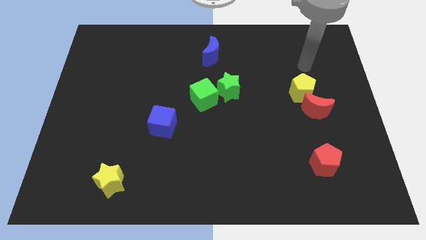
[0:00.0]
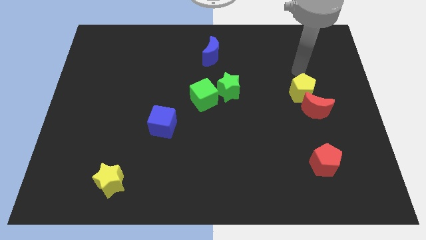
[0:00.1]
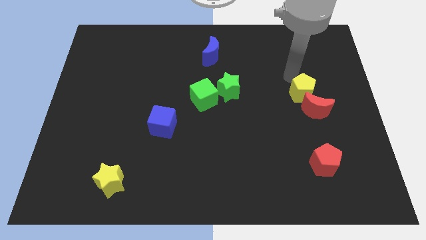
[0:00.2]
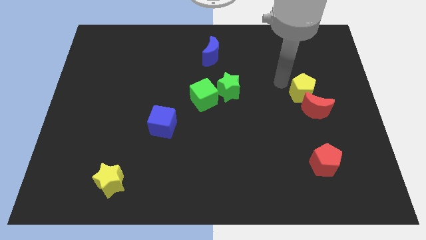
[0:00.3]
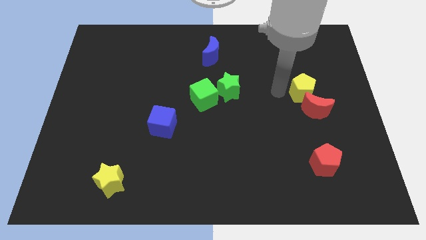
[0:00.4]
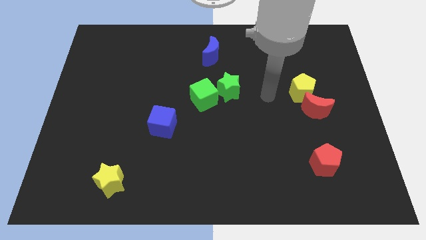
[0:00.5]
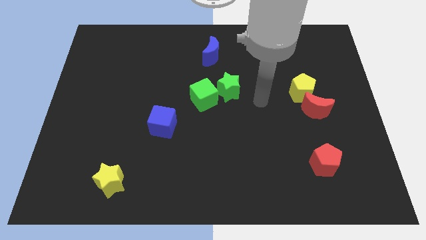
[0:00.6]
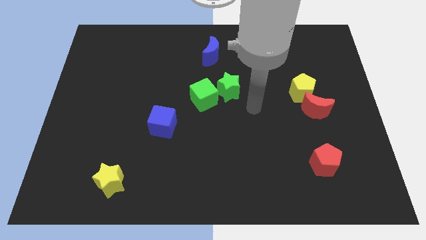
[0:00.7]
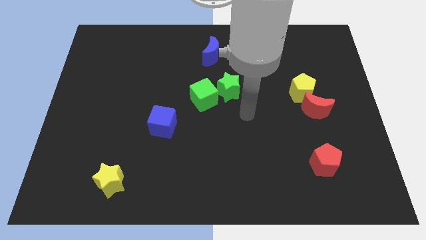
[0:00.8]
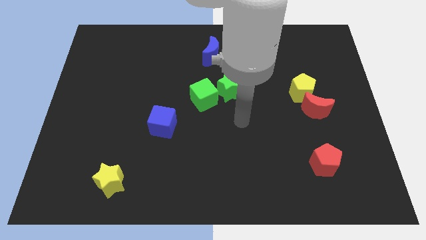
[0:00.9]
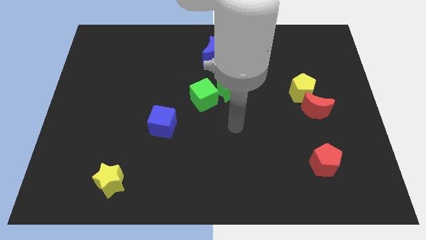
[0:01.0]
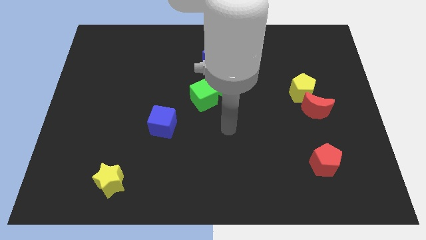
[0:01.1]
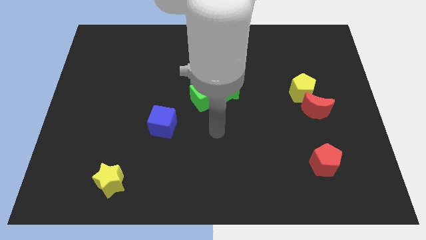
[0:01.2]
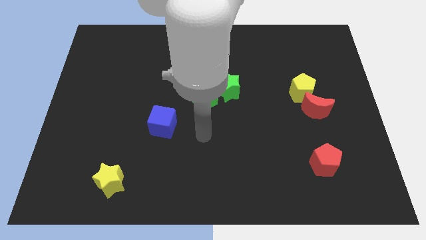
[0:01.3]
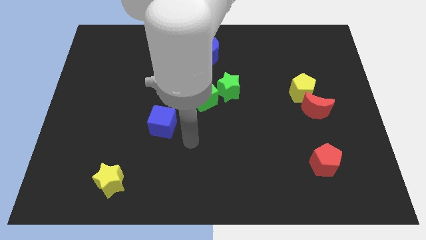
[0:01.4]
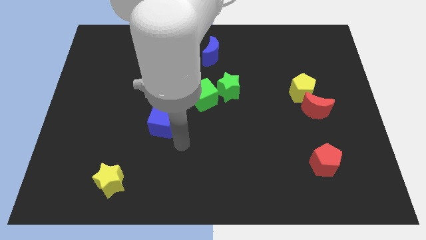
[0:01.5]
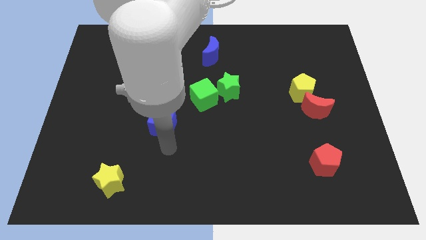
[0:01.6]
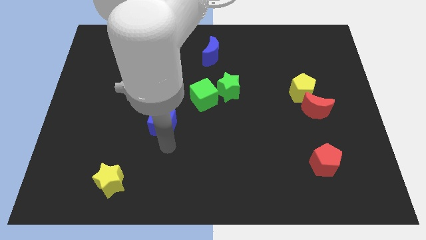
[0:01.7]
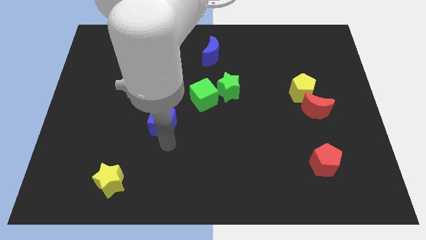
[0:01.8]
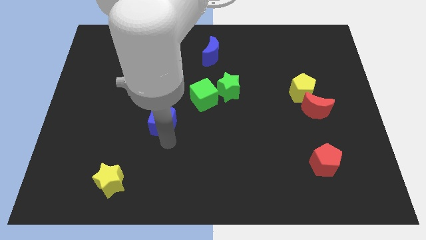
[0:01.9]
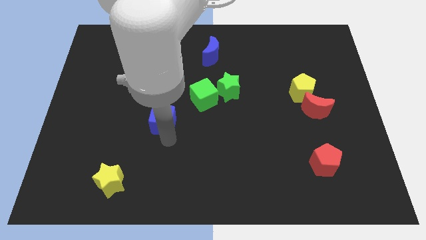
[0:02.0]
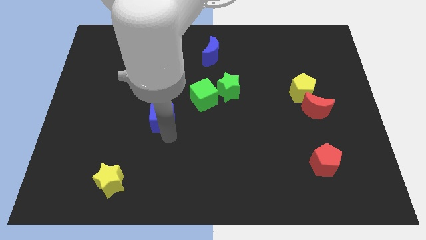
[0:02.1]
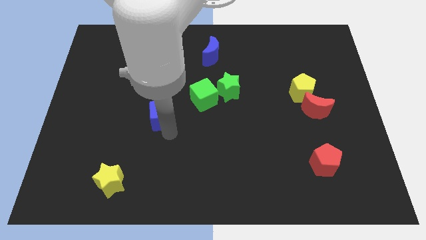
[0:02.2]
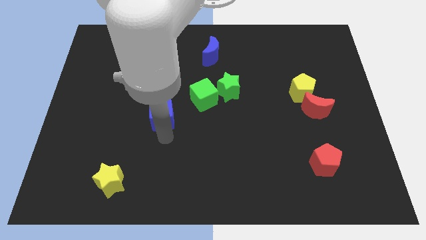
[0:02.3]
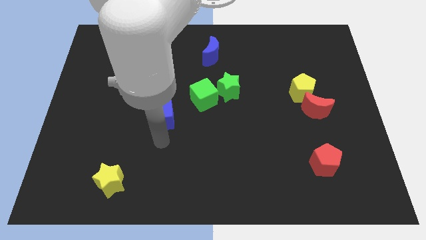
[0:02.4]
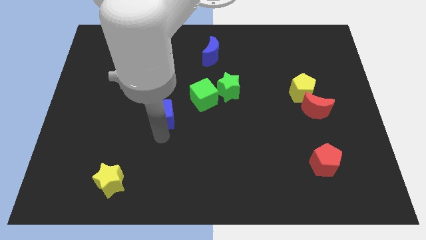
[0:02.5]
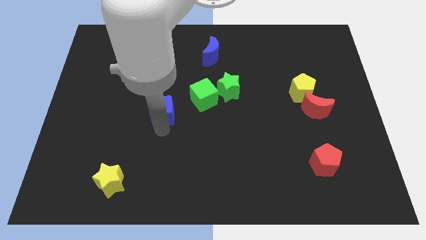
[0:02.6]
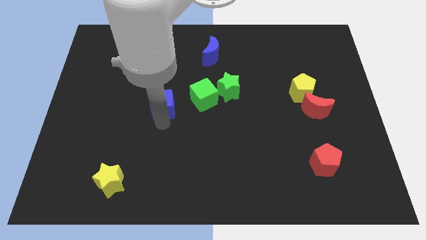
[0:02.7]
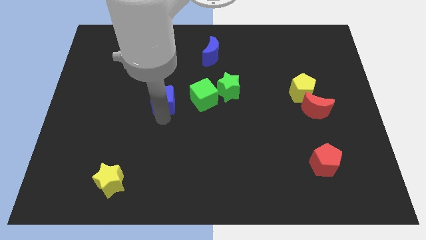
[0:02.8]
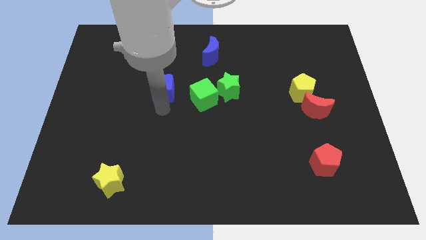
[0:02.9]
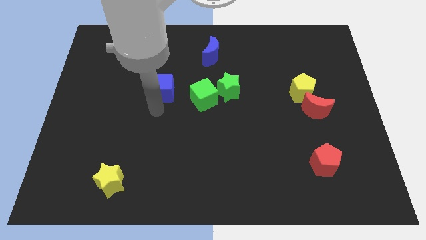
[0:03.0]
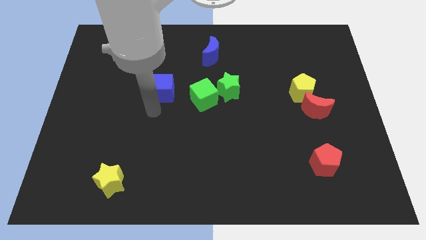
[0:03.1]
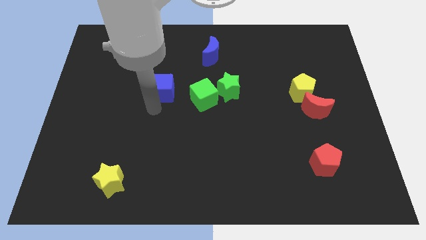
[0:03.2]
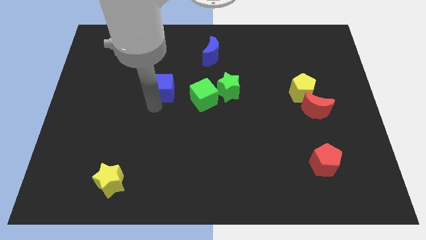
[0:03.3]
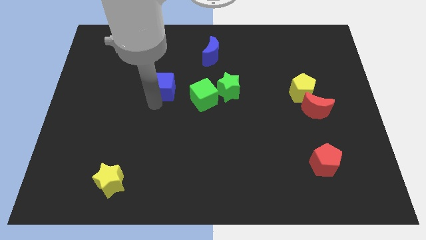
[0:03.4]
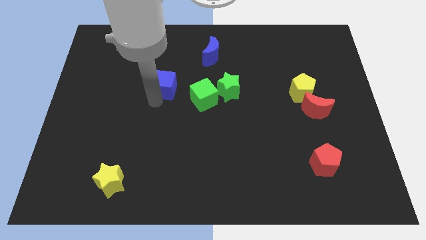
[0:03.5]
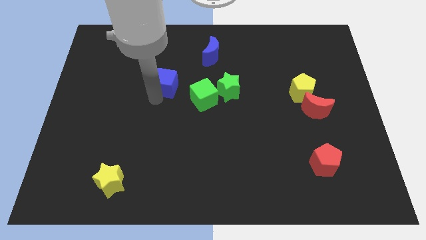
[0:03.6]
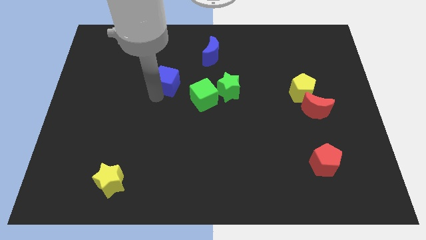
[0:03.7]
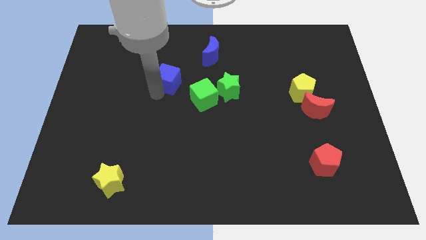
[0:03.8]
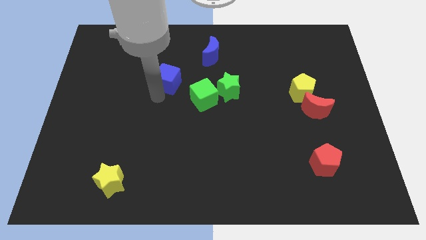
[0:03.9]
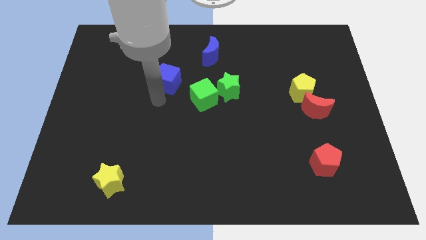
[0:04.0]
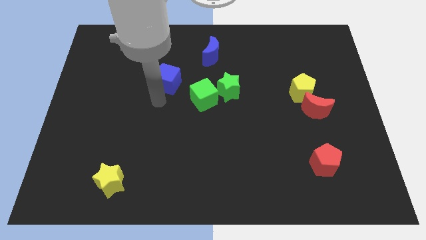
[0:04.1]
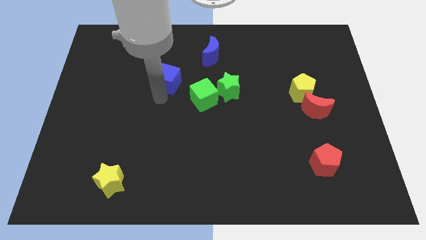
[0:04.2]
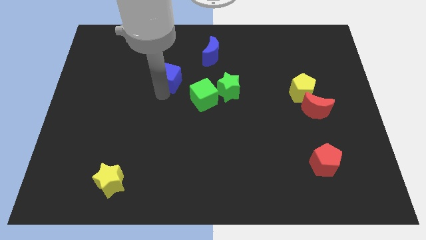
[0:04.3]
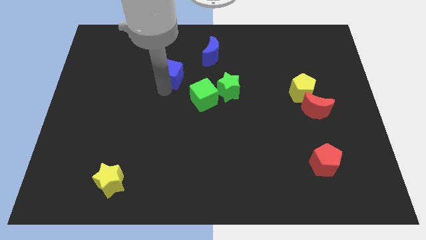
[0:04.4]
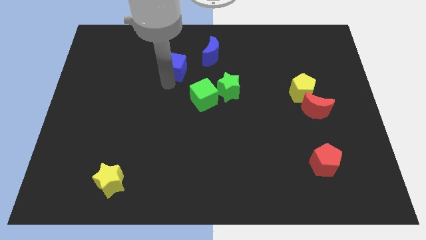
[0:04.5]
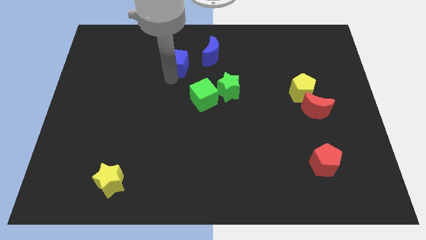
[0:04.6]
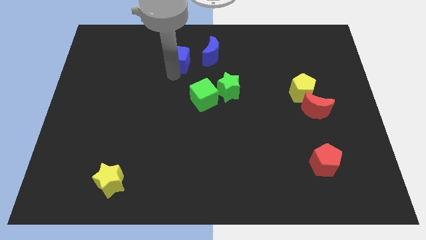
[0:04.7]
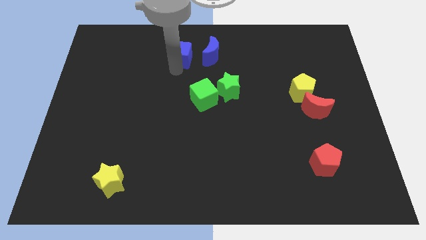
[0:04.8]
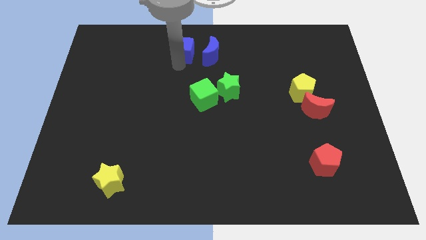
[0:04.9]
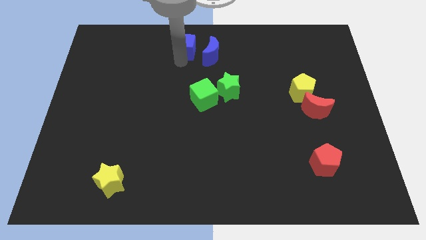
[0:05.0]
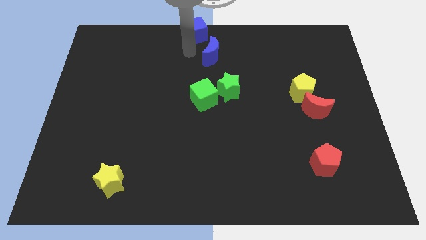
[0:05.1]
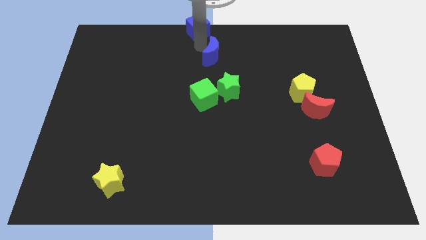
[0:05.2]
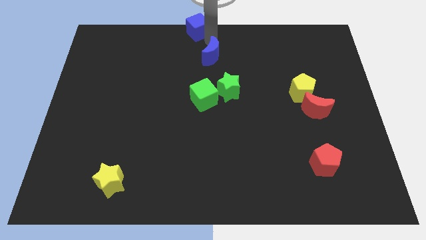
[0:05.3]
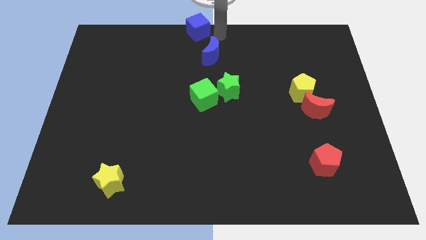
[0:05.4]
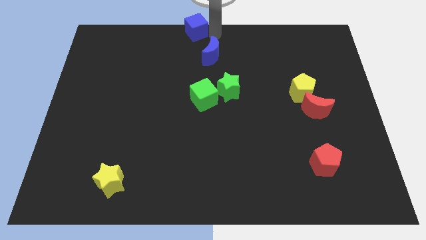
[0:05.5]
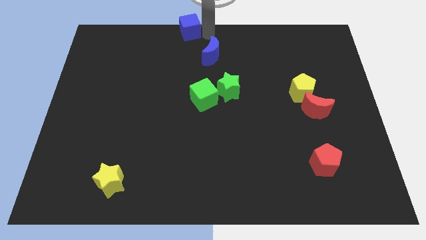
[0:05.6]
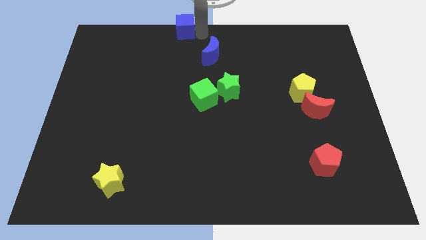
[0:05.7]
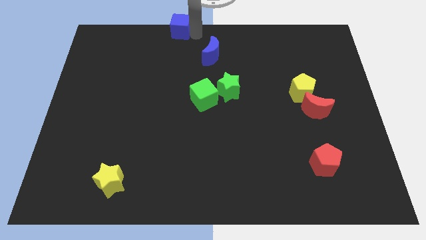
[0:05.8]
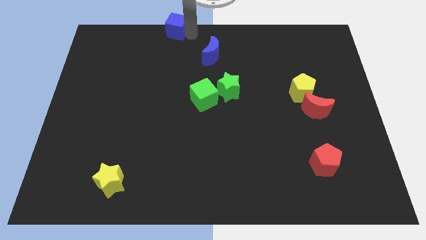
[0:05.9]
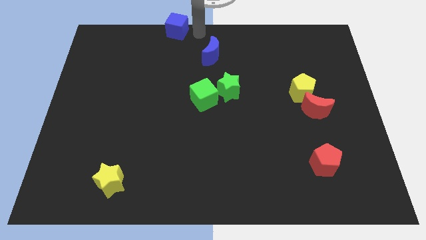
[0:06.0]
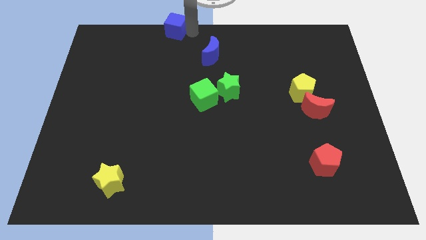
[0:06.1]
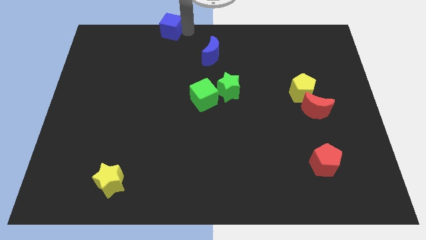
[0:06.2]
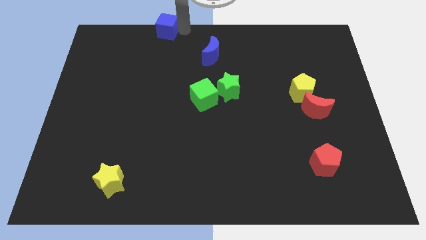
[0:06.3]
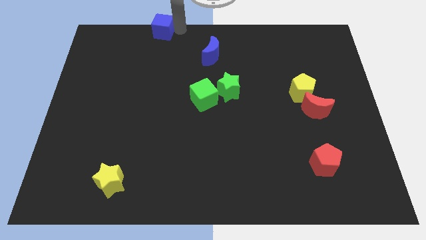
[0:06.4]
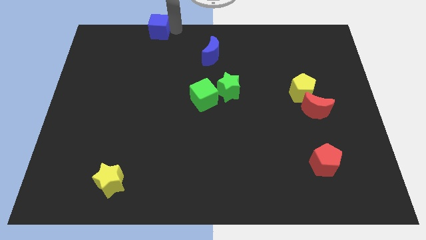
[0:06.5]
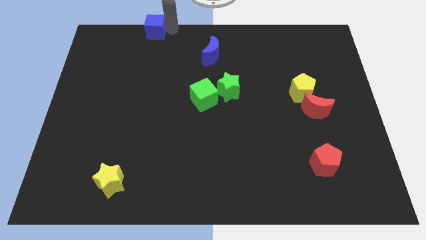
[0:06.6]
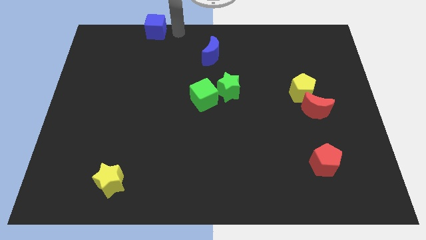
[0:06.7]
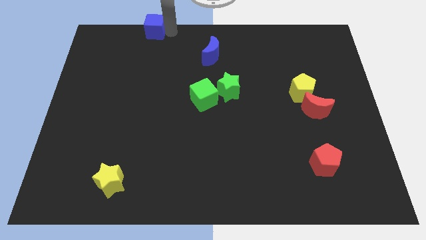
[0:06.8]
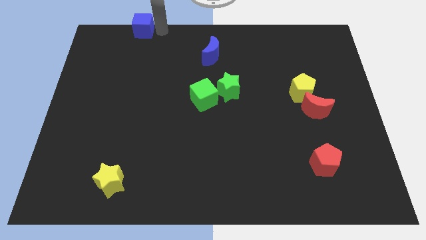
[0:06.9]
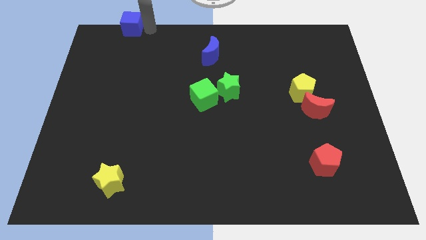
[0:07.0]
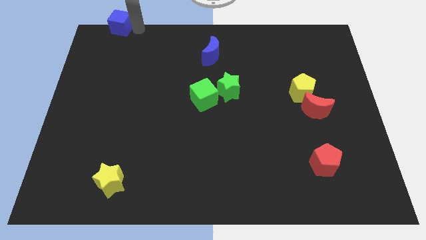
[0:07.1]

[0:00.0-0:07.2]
move the blue cube to the top left corner
